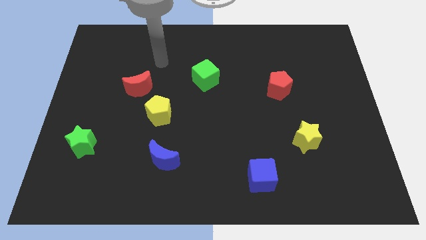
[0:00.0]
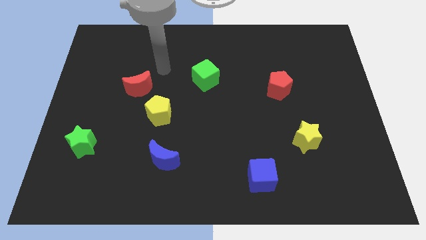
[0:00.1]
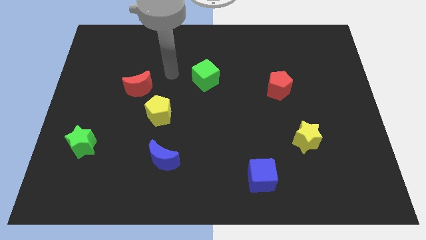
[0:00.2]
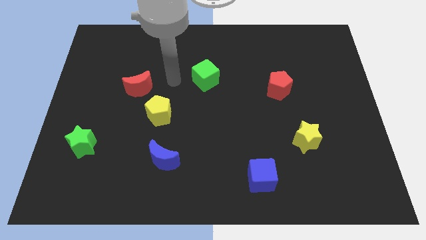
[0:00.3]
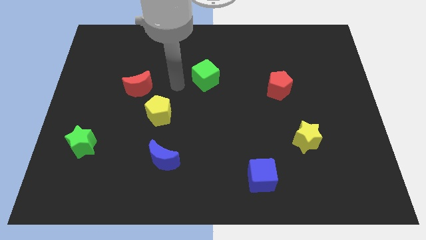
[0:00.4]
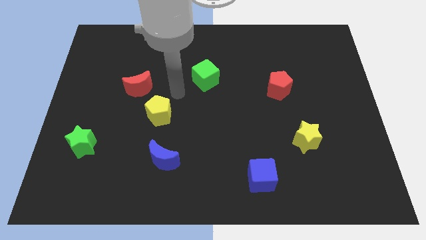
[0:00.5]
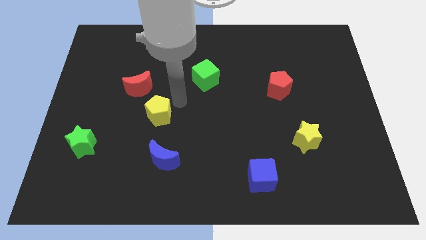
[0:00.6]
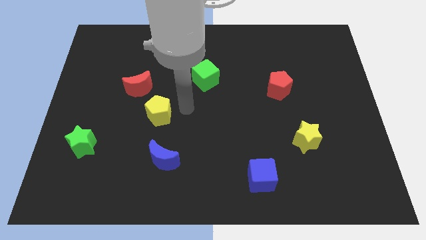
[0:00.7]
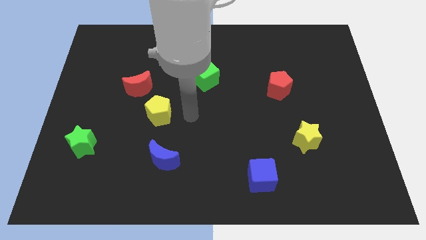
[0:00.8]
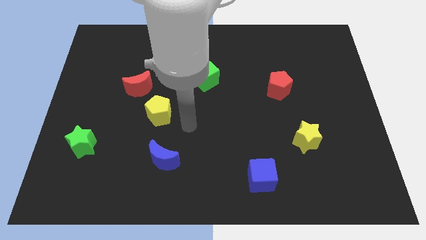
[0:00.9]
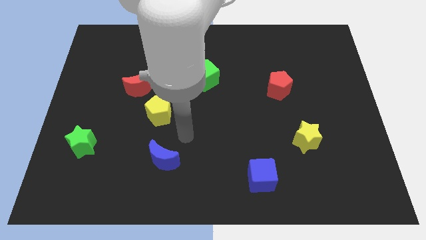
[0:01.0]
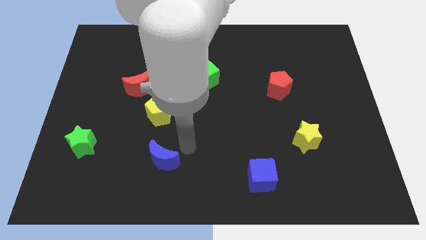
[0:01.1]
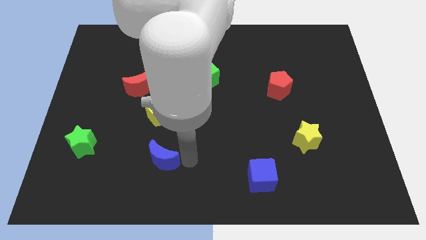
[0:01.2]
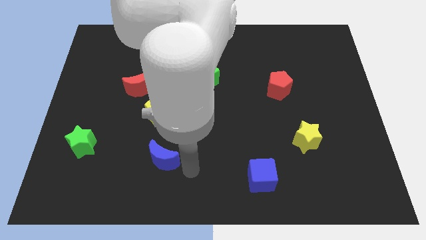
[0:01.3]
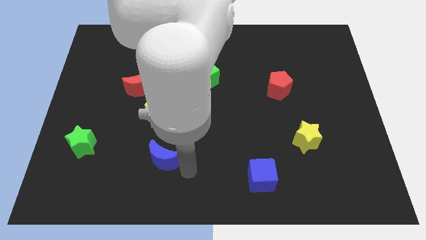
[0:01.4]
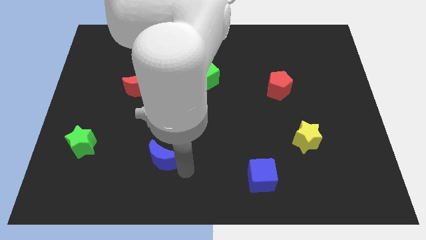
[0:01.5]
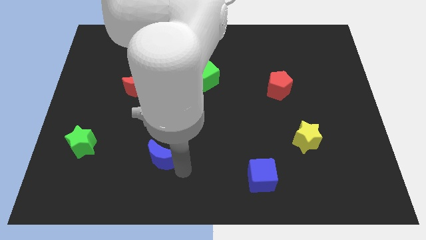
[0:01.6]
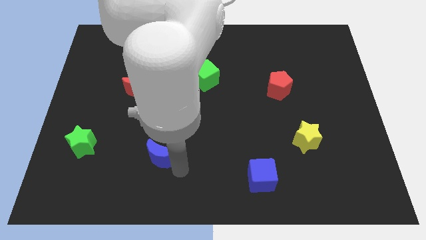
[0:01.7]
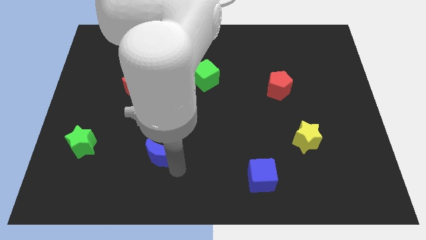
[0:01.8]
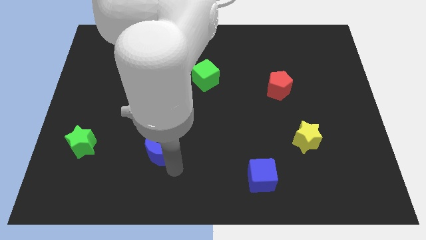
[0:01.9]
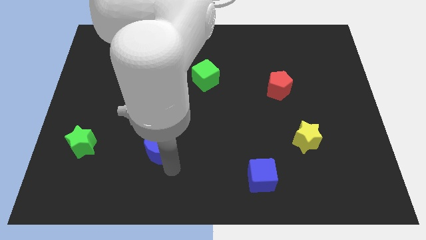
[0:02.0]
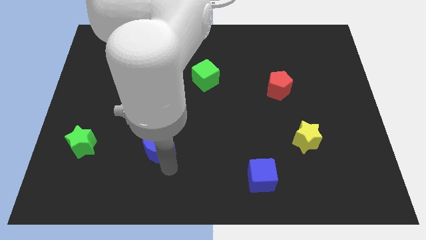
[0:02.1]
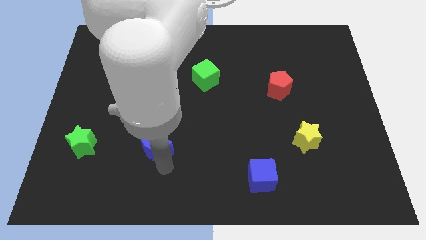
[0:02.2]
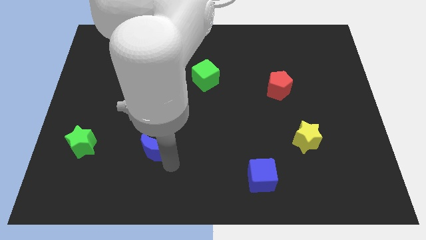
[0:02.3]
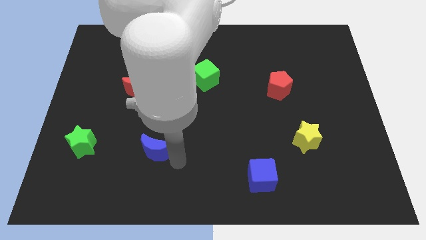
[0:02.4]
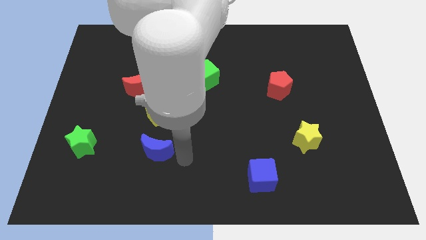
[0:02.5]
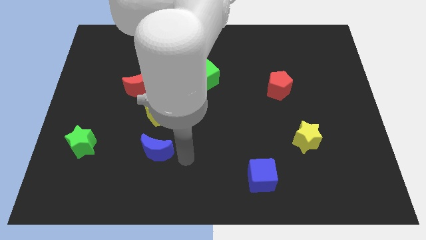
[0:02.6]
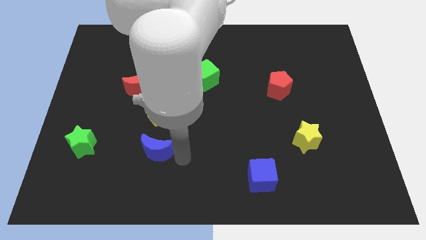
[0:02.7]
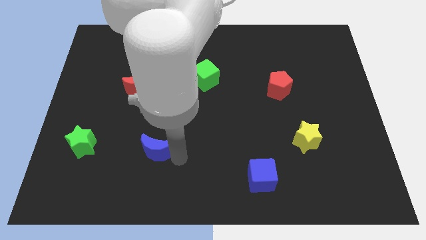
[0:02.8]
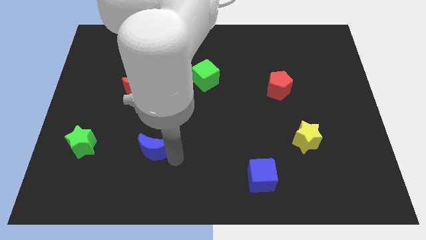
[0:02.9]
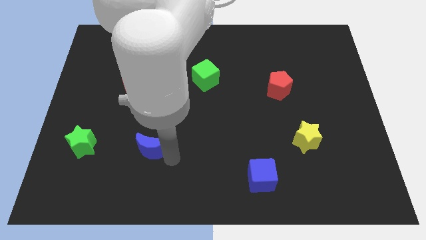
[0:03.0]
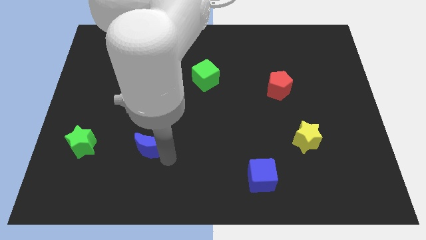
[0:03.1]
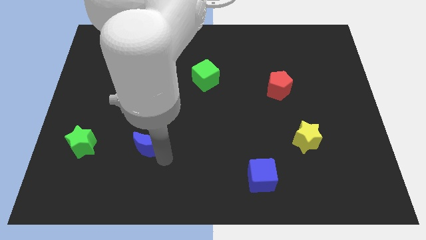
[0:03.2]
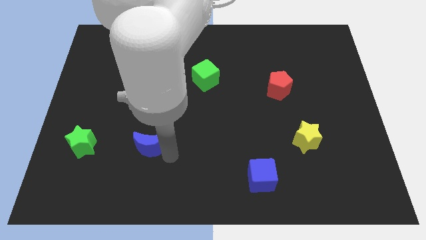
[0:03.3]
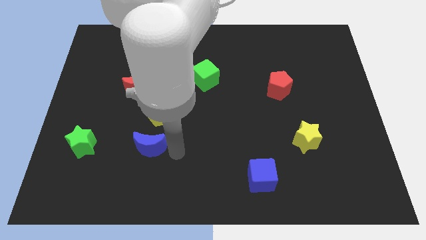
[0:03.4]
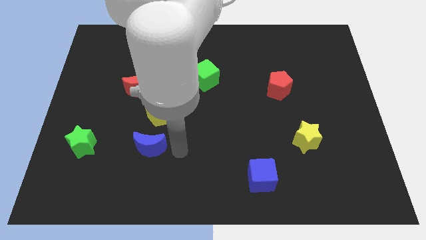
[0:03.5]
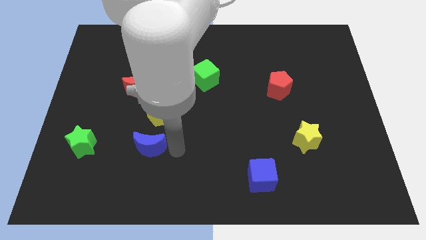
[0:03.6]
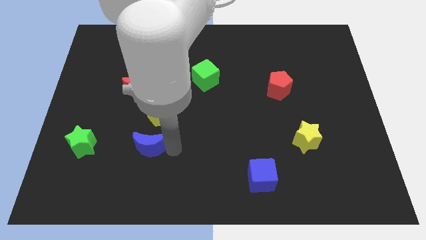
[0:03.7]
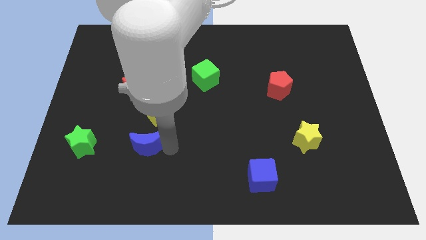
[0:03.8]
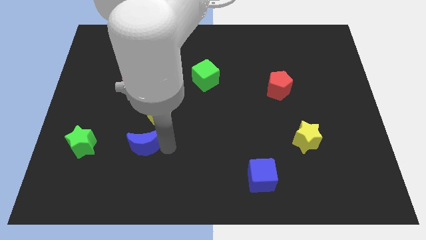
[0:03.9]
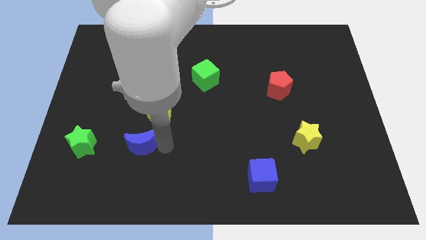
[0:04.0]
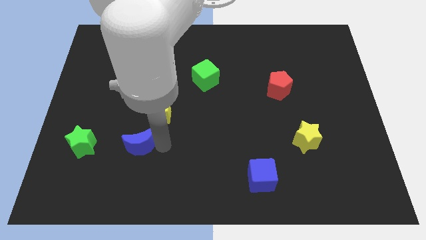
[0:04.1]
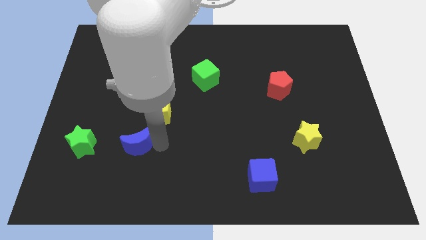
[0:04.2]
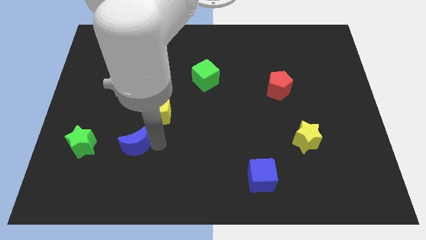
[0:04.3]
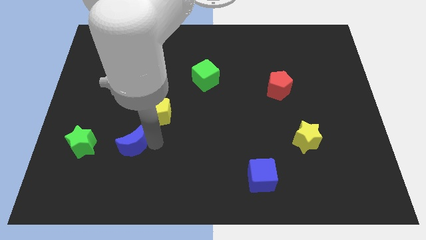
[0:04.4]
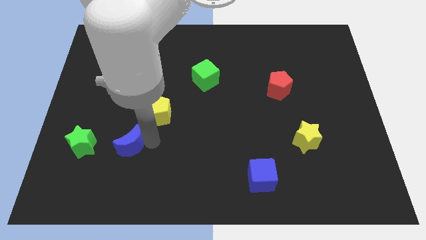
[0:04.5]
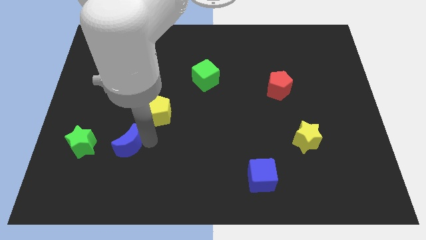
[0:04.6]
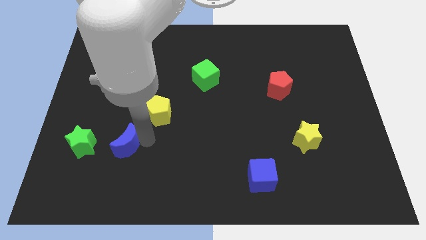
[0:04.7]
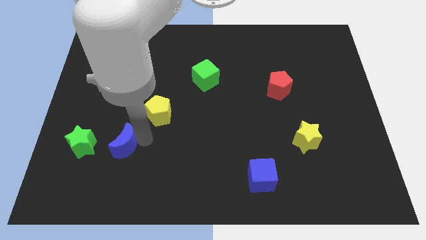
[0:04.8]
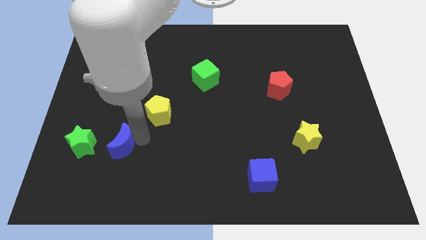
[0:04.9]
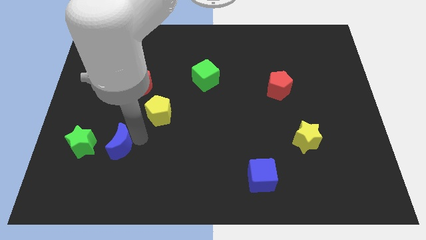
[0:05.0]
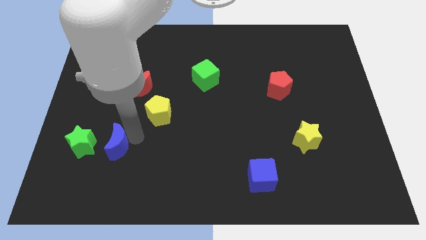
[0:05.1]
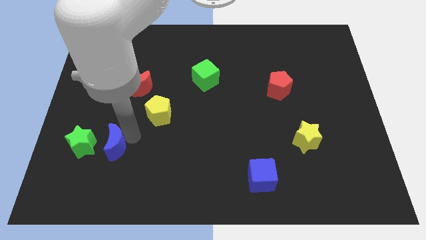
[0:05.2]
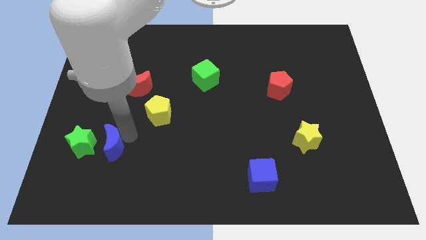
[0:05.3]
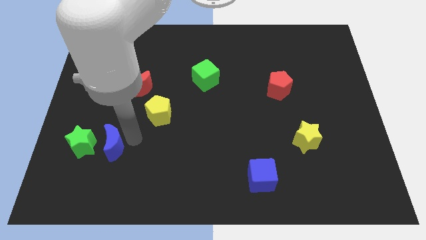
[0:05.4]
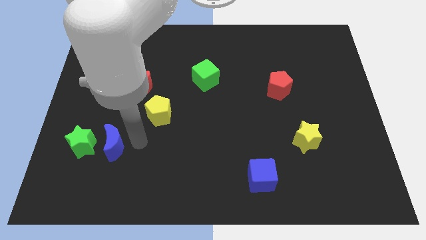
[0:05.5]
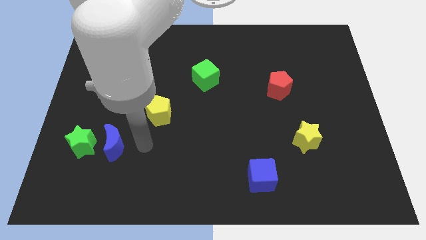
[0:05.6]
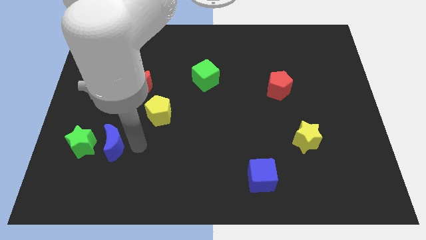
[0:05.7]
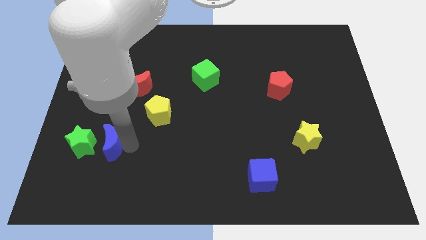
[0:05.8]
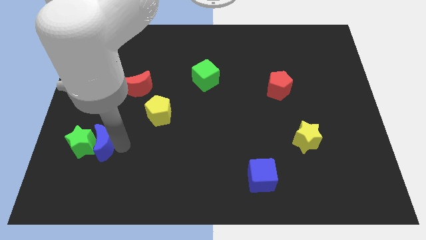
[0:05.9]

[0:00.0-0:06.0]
slide the blue moon next to the green star

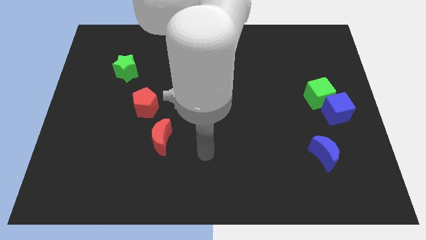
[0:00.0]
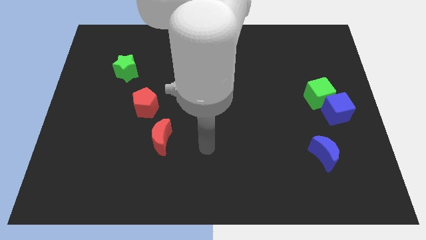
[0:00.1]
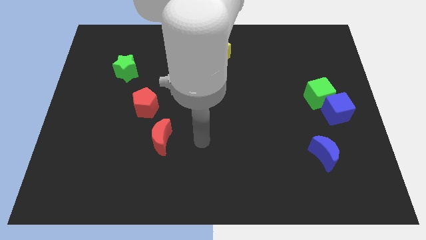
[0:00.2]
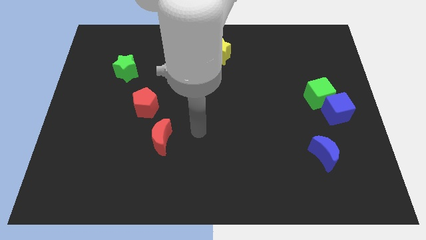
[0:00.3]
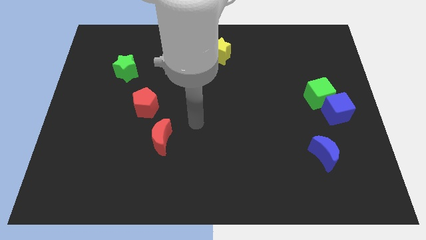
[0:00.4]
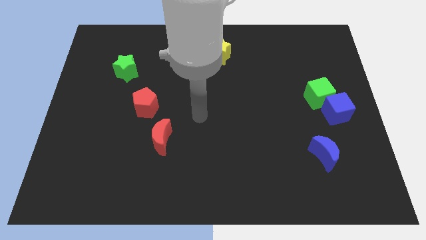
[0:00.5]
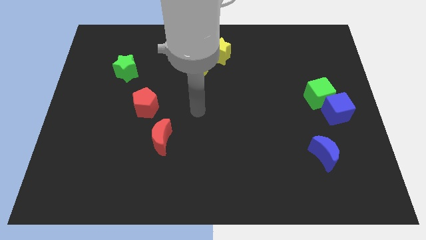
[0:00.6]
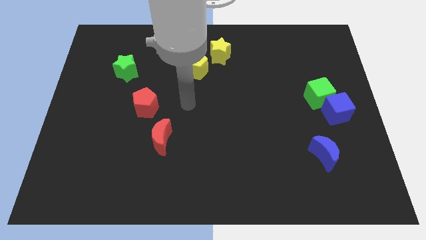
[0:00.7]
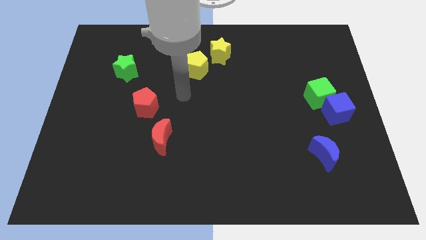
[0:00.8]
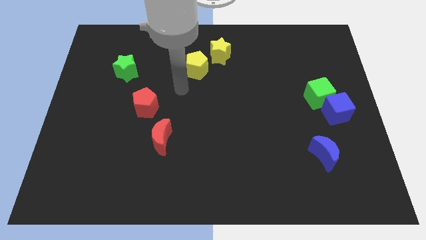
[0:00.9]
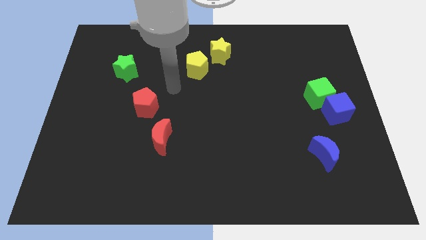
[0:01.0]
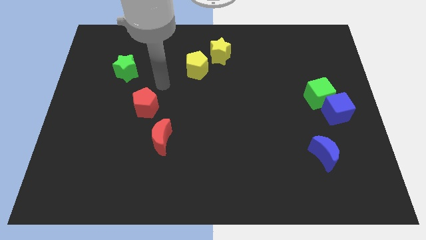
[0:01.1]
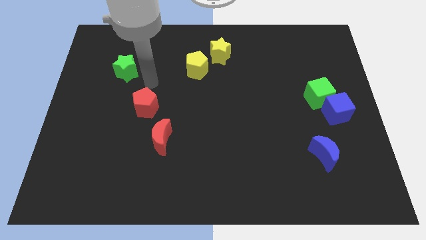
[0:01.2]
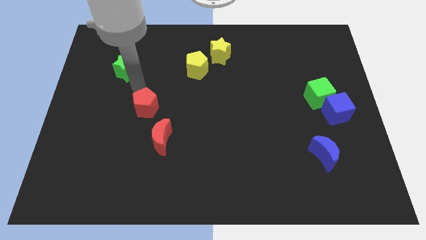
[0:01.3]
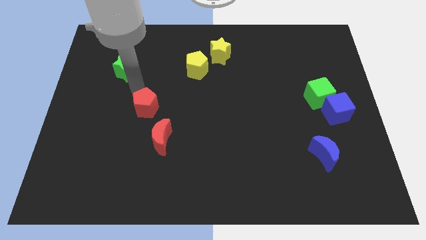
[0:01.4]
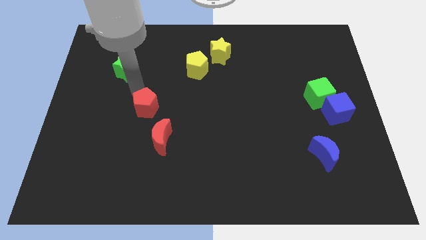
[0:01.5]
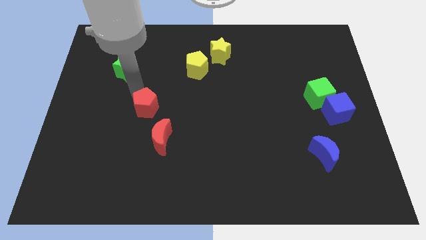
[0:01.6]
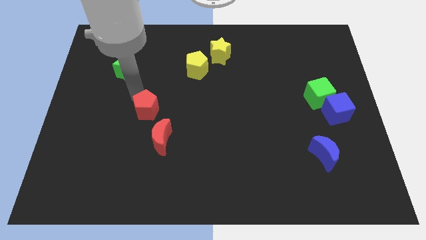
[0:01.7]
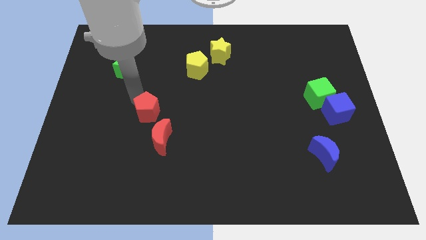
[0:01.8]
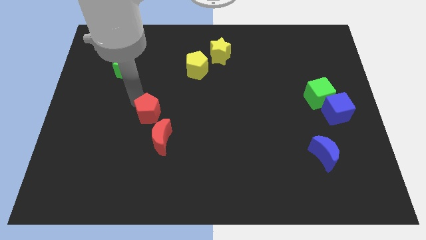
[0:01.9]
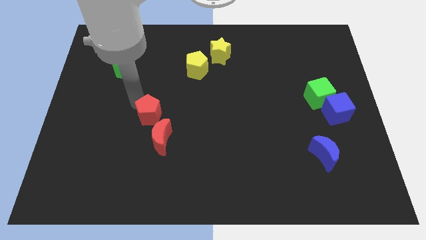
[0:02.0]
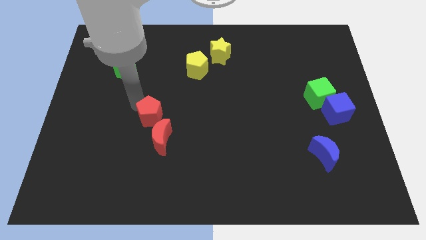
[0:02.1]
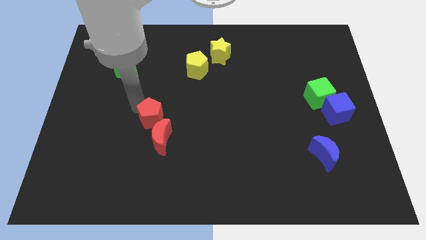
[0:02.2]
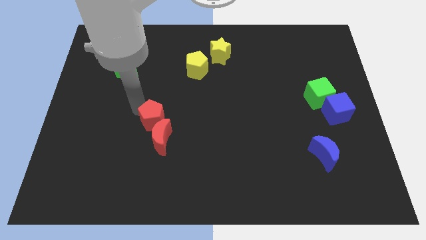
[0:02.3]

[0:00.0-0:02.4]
push the red pentagon towards the red moon
